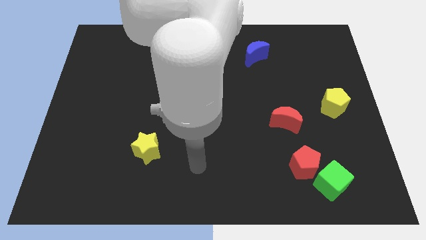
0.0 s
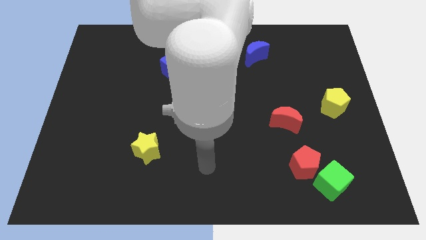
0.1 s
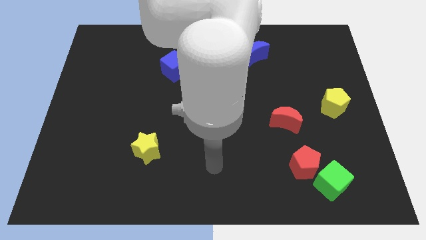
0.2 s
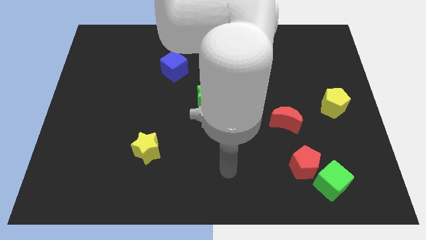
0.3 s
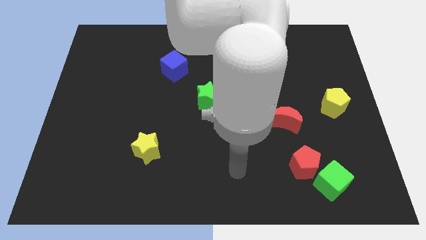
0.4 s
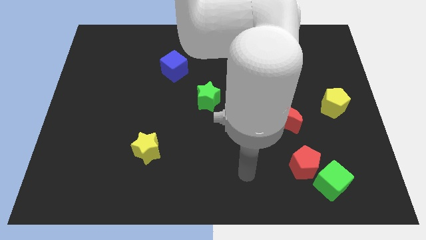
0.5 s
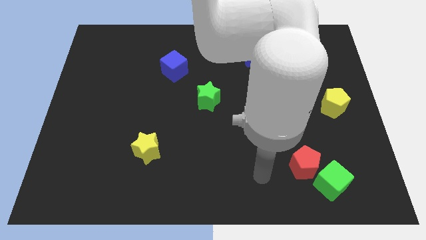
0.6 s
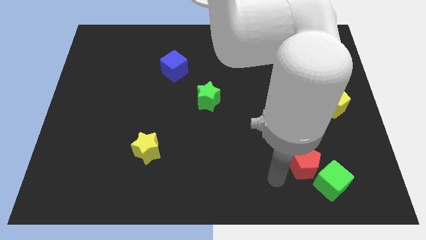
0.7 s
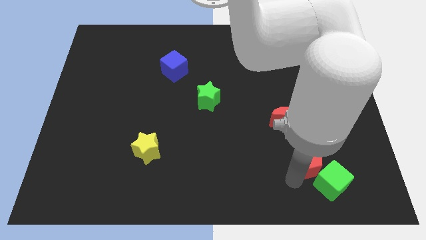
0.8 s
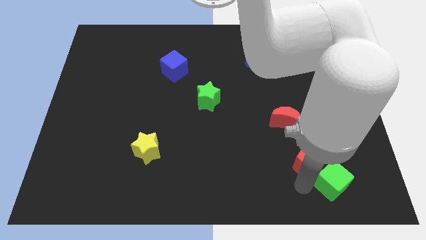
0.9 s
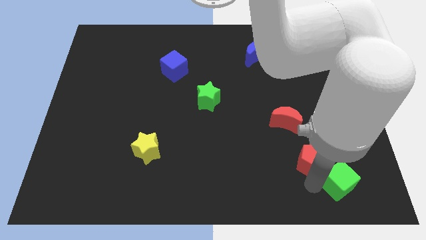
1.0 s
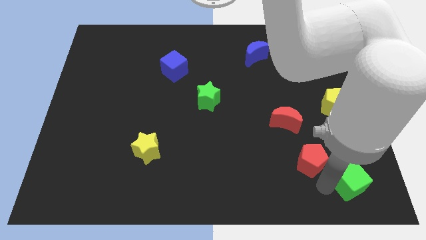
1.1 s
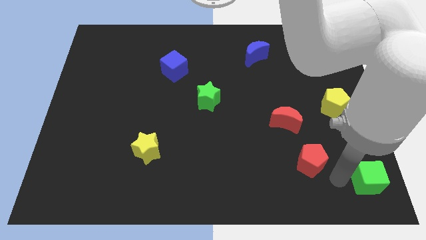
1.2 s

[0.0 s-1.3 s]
pull the red pentagon apart from the green cube

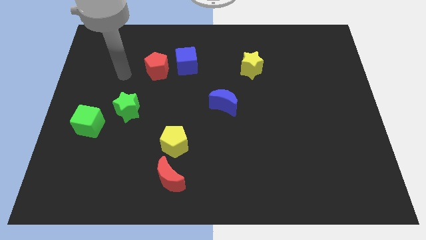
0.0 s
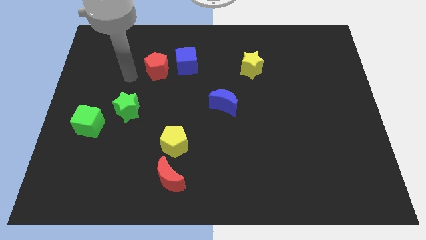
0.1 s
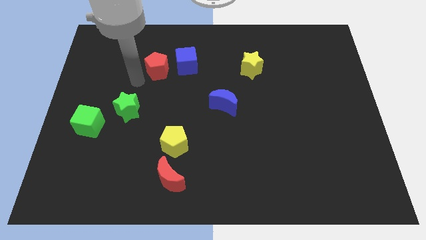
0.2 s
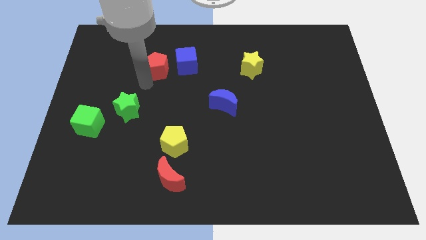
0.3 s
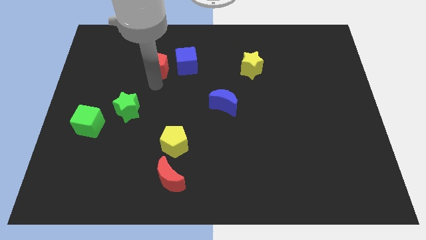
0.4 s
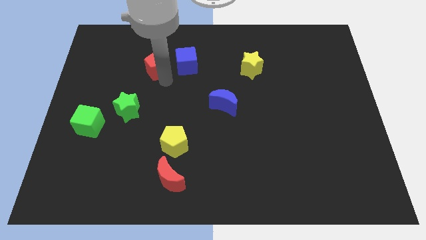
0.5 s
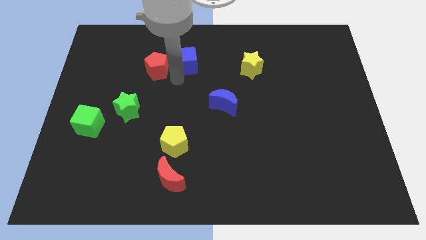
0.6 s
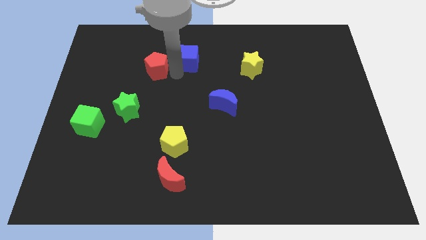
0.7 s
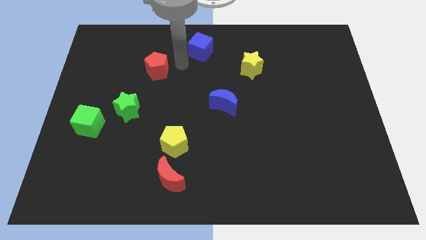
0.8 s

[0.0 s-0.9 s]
move the red pentagon away from the blue cube

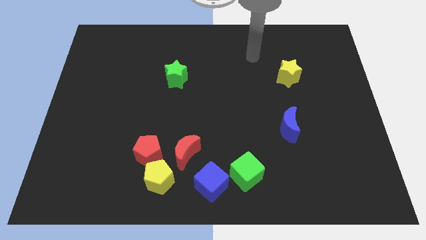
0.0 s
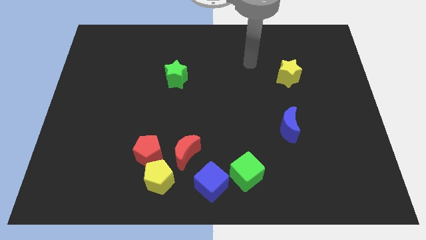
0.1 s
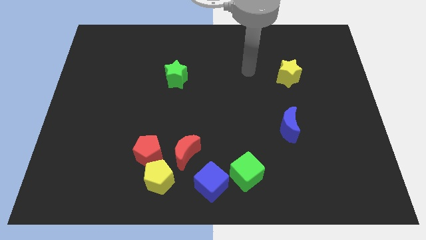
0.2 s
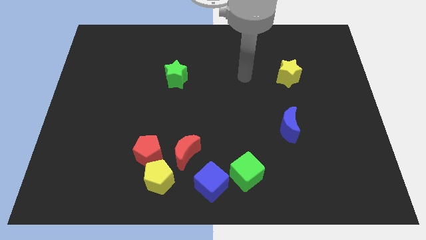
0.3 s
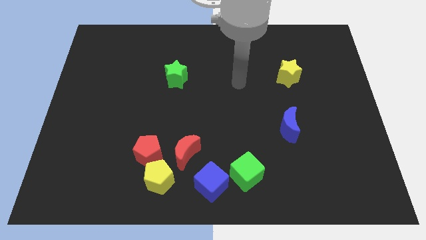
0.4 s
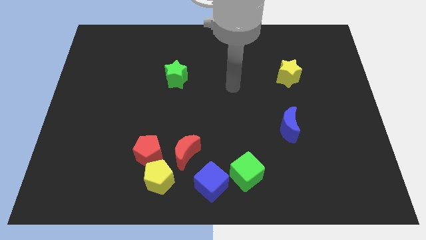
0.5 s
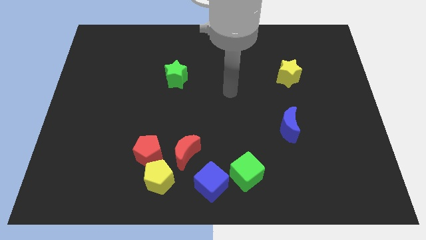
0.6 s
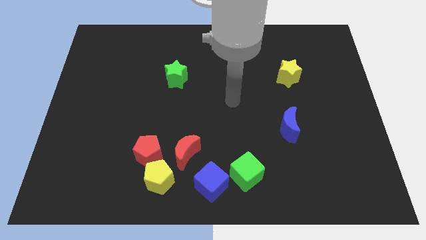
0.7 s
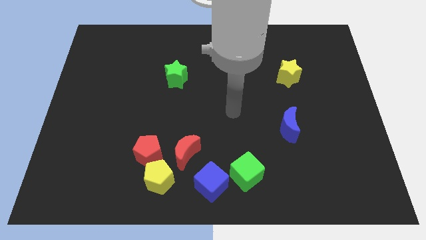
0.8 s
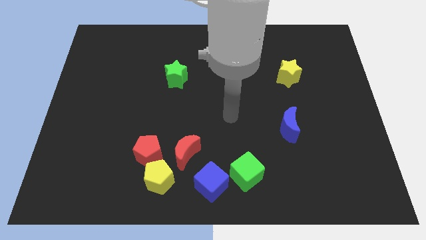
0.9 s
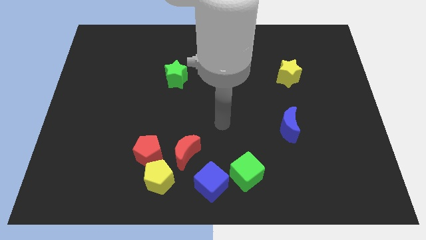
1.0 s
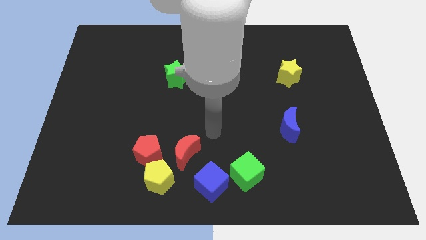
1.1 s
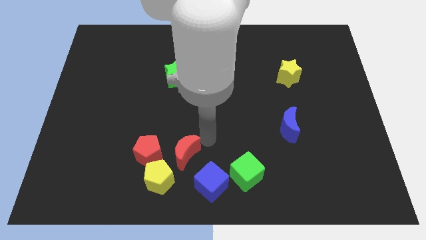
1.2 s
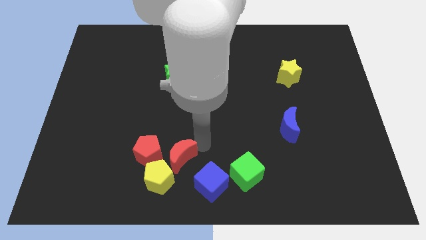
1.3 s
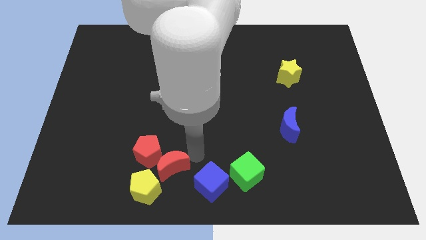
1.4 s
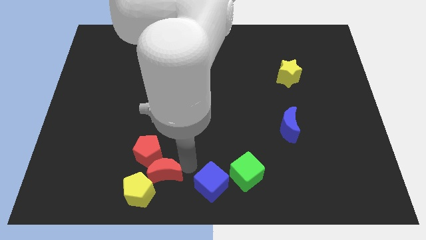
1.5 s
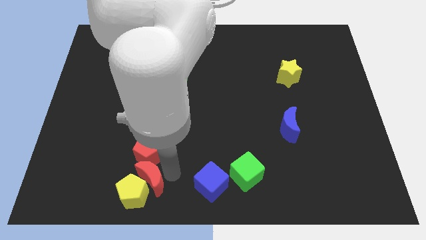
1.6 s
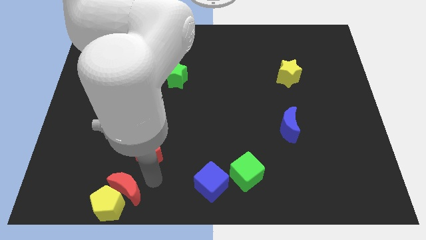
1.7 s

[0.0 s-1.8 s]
separate the red pentagon from the yellow pentagon and red moon

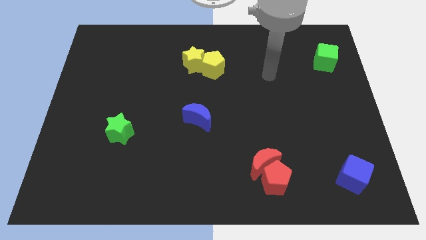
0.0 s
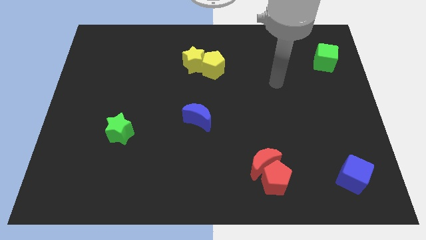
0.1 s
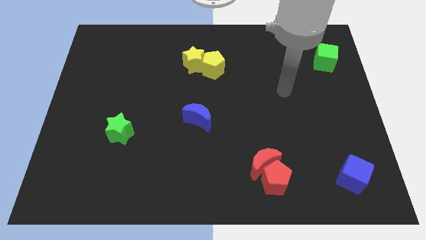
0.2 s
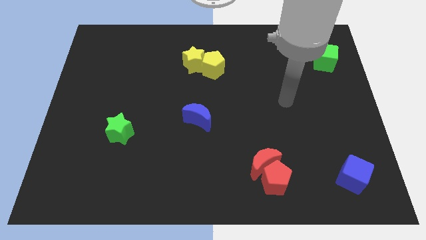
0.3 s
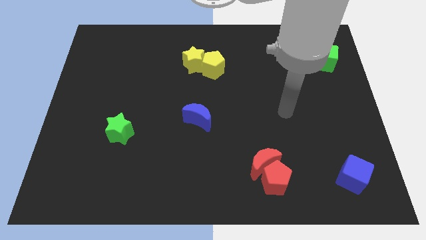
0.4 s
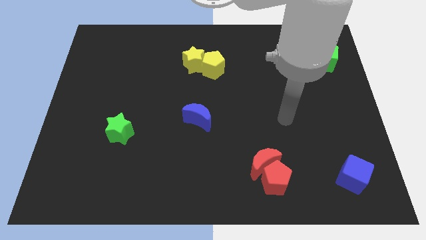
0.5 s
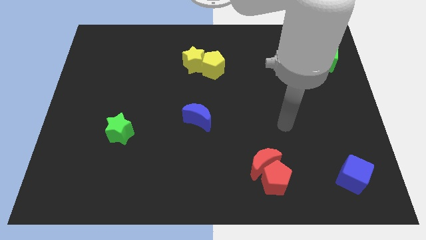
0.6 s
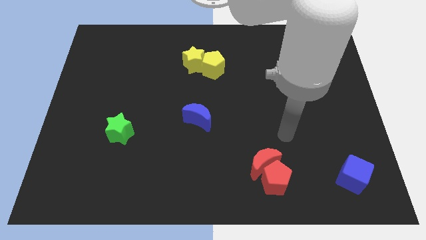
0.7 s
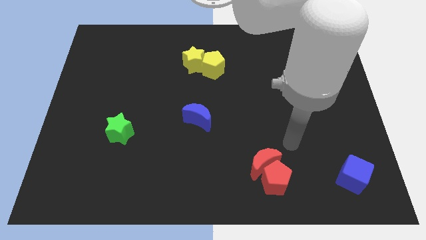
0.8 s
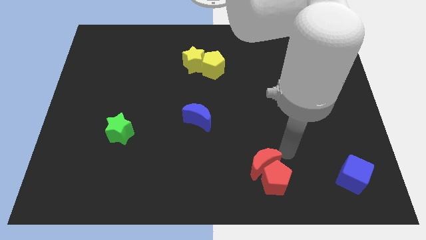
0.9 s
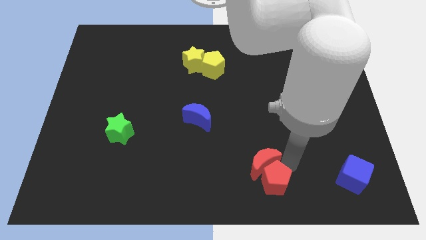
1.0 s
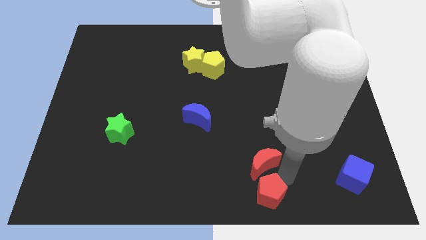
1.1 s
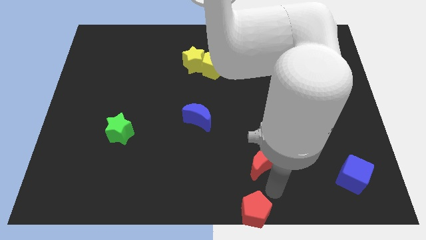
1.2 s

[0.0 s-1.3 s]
separate the red moon from the red pentagon

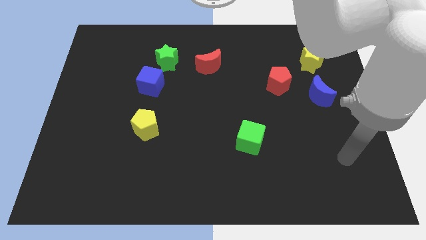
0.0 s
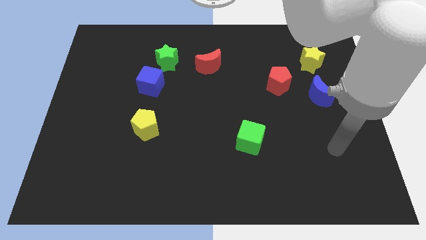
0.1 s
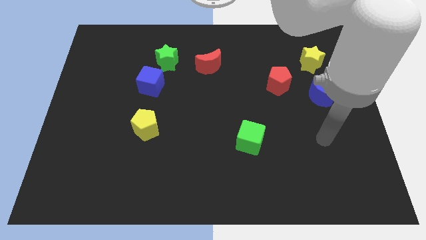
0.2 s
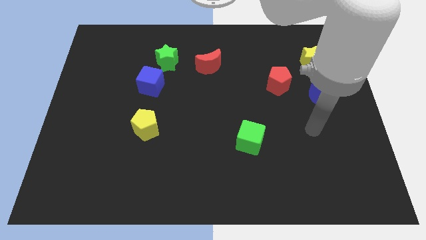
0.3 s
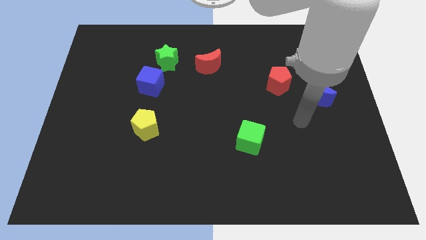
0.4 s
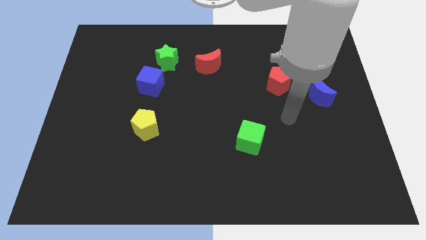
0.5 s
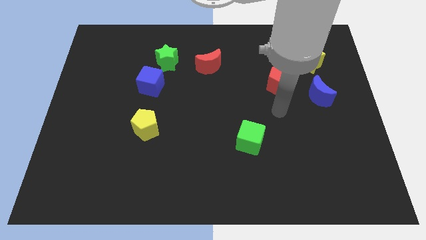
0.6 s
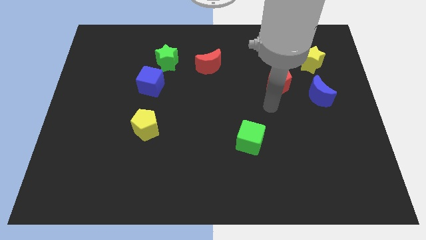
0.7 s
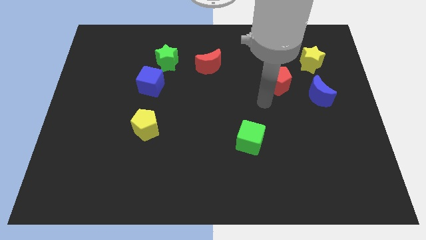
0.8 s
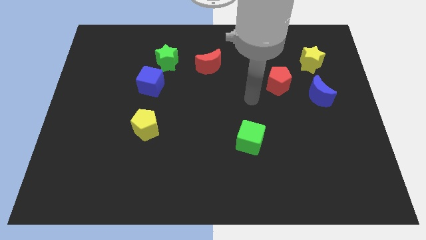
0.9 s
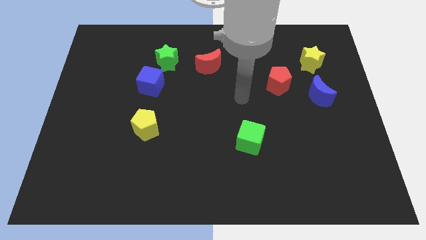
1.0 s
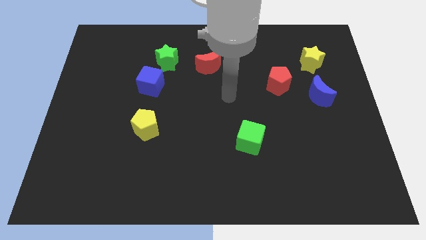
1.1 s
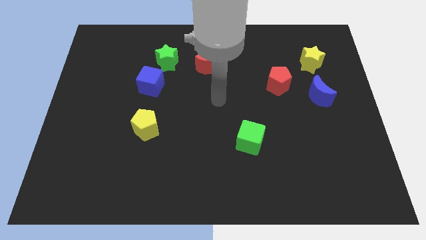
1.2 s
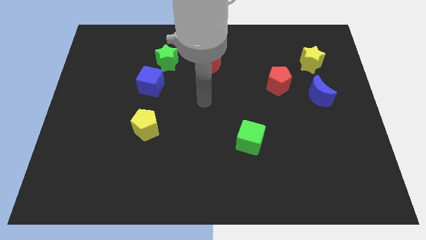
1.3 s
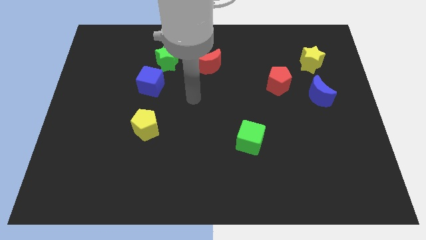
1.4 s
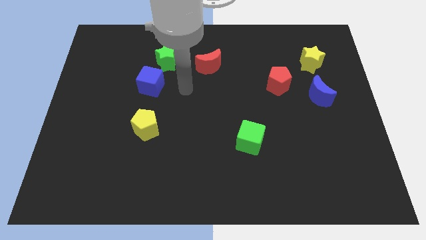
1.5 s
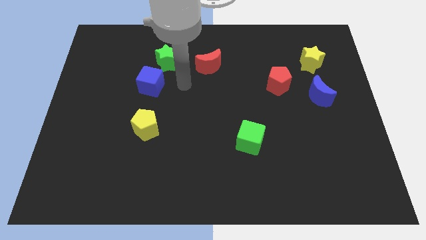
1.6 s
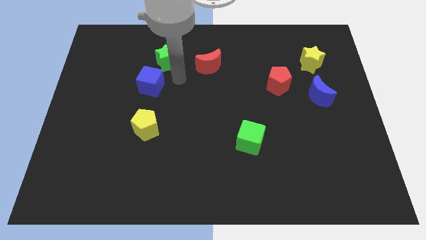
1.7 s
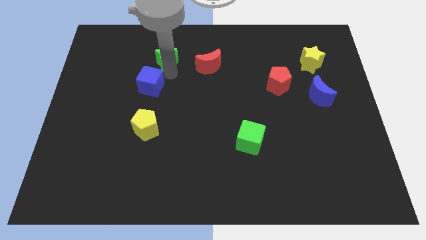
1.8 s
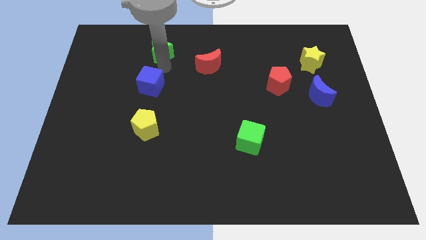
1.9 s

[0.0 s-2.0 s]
pull the blue cube apart from the green star

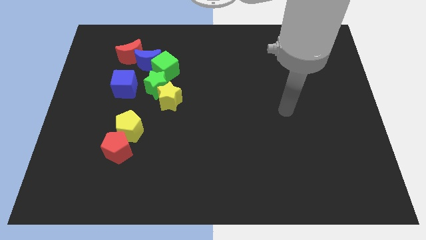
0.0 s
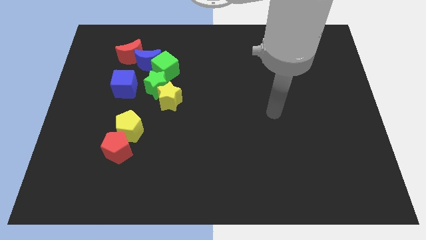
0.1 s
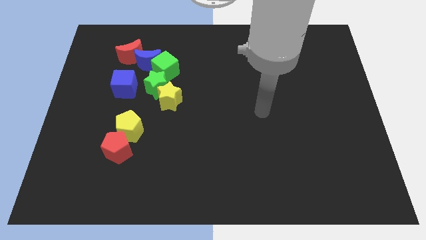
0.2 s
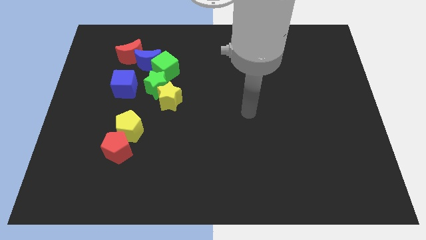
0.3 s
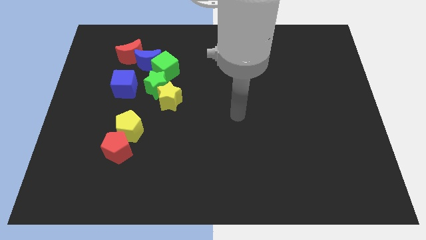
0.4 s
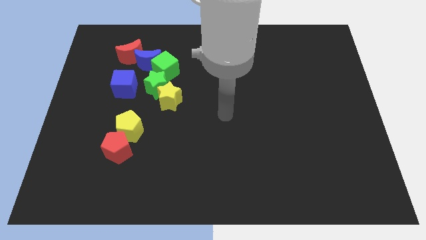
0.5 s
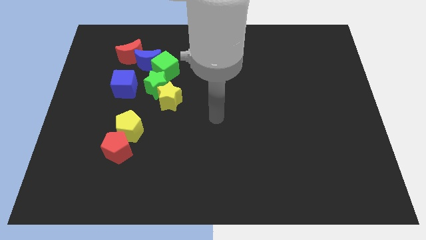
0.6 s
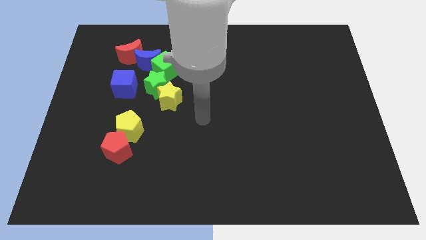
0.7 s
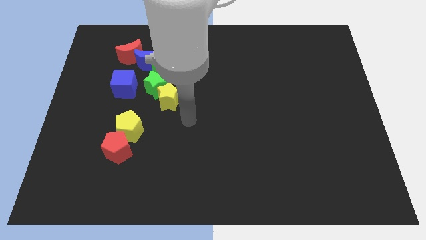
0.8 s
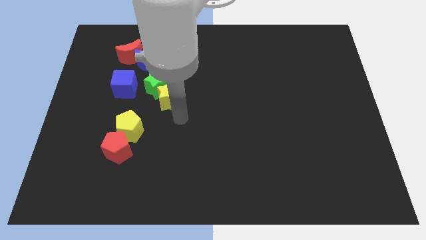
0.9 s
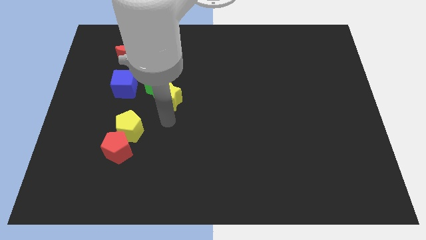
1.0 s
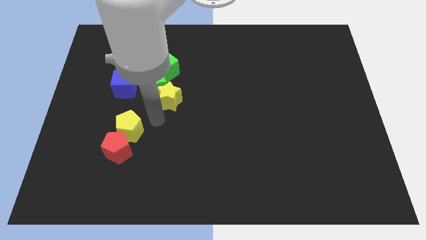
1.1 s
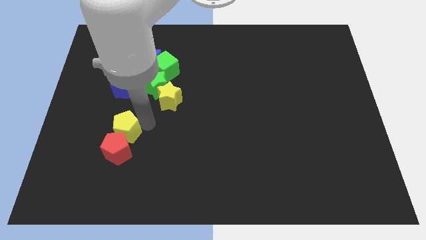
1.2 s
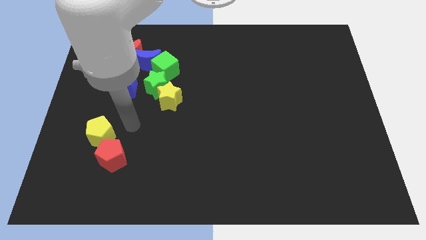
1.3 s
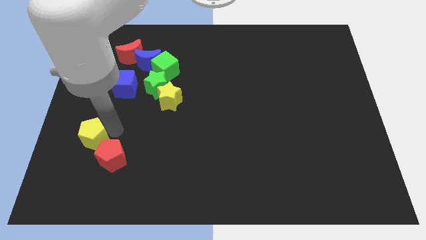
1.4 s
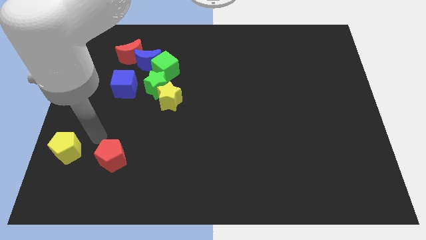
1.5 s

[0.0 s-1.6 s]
separate the red pentagon from the yellow pentagon

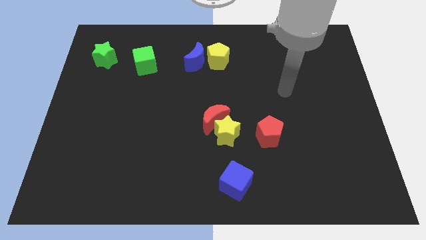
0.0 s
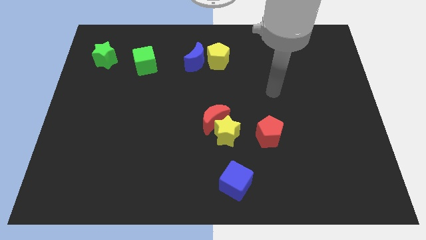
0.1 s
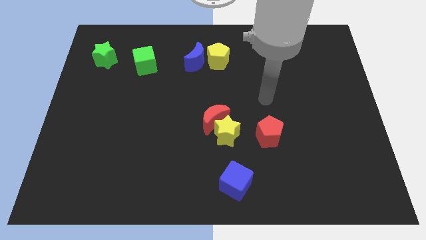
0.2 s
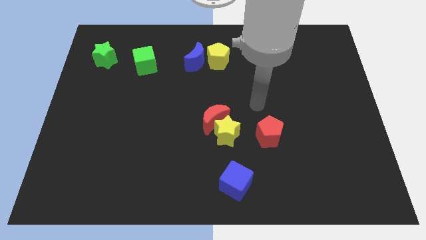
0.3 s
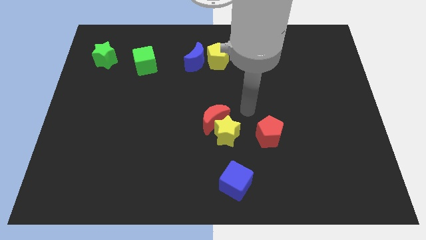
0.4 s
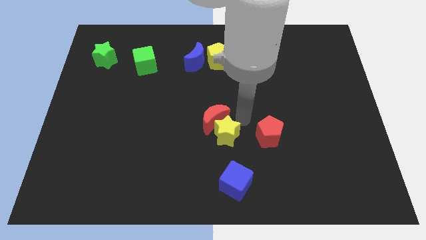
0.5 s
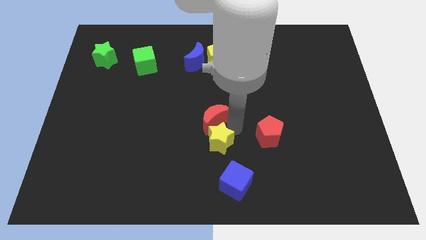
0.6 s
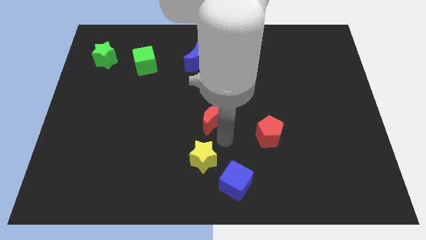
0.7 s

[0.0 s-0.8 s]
pull the red moon apart from the yellow star
